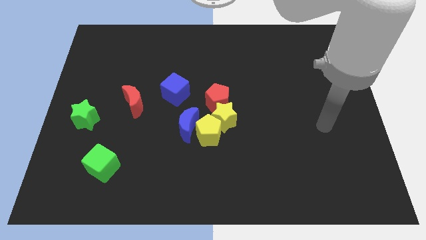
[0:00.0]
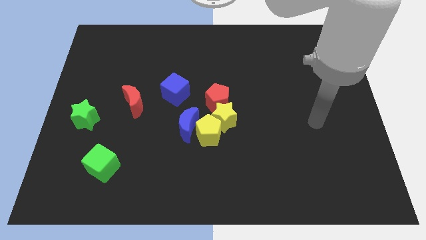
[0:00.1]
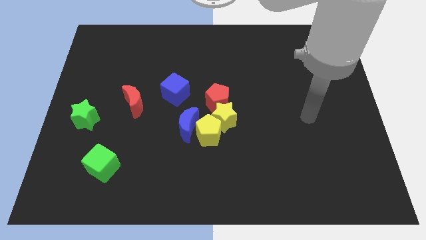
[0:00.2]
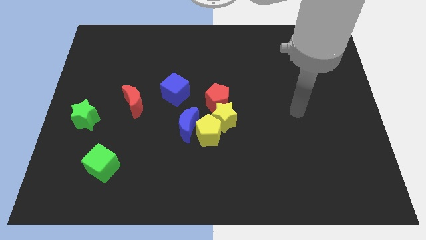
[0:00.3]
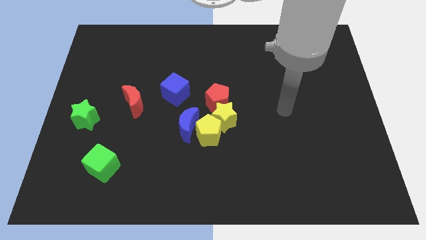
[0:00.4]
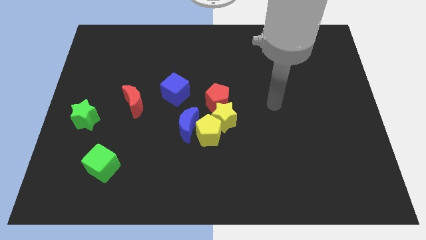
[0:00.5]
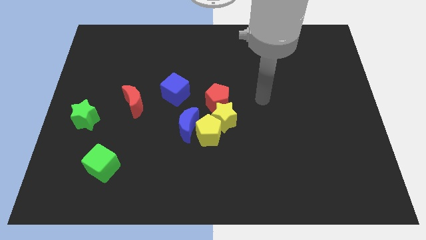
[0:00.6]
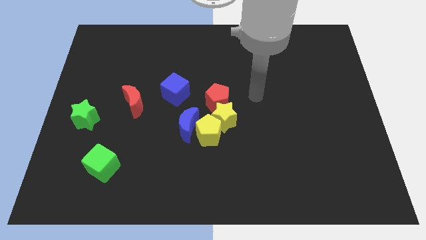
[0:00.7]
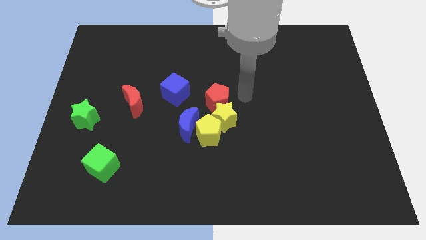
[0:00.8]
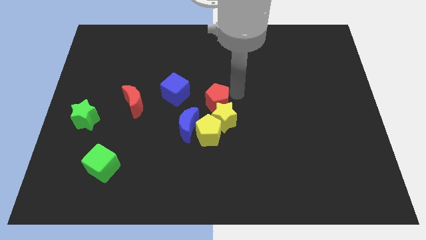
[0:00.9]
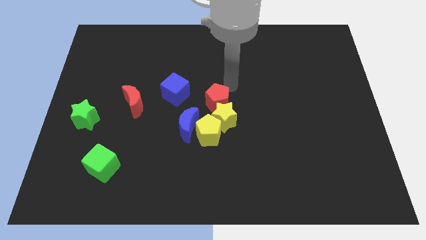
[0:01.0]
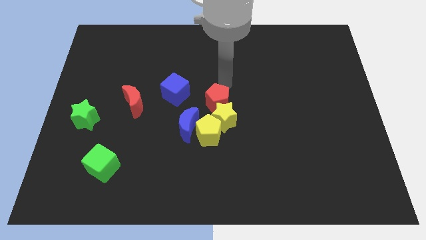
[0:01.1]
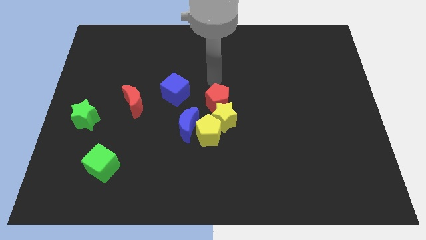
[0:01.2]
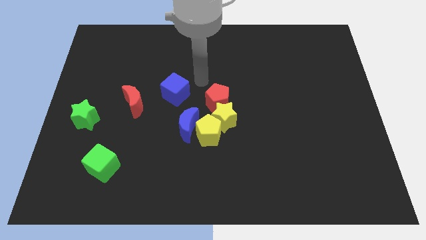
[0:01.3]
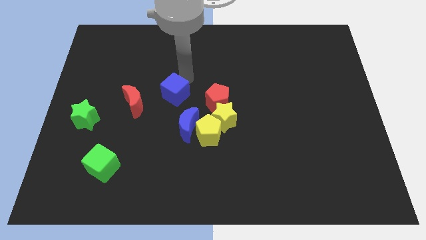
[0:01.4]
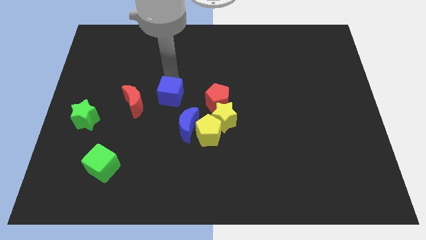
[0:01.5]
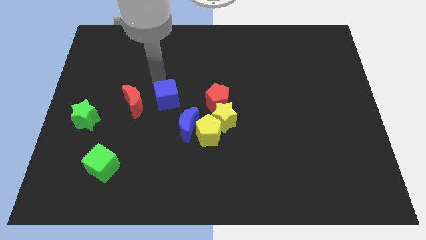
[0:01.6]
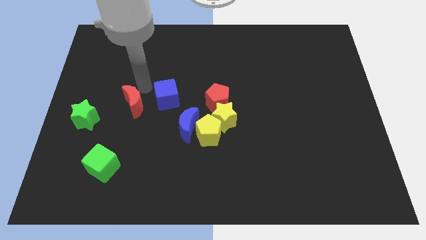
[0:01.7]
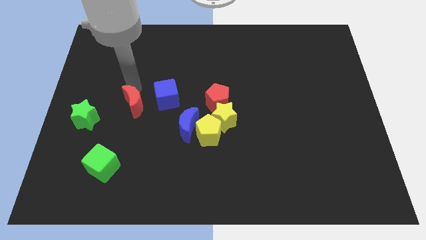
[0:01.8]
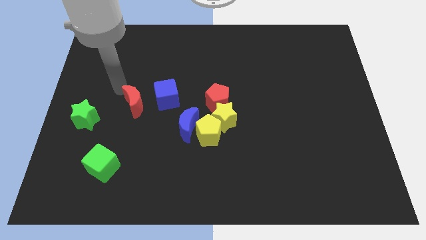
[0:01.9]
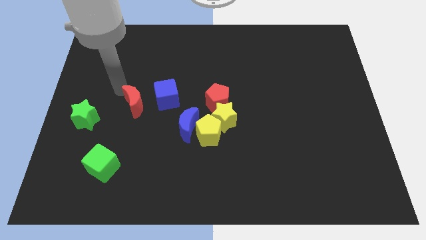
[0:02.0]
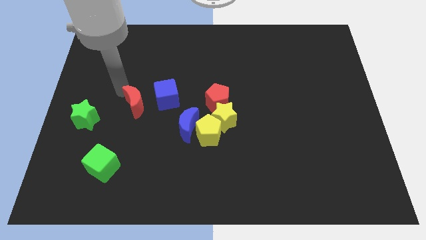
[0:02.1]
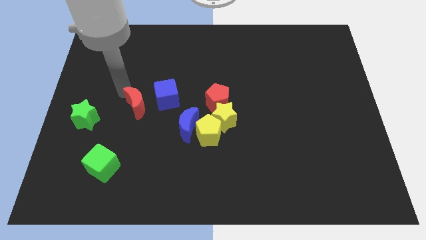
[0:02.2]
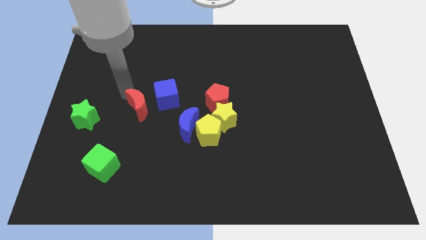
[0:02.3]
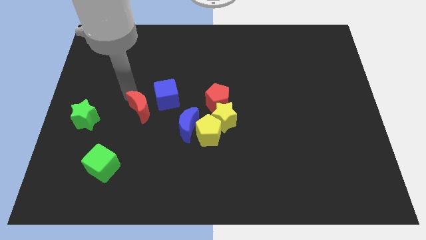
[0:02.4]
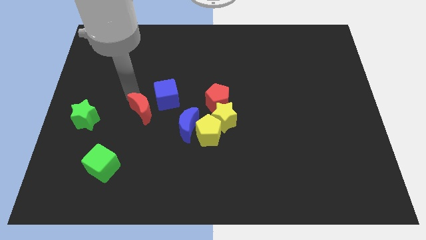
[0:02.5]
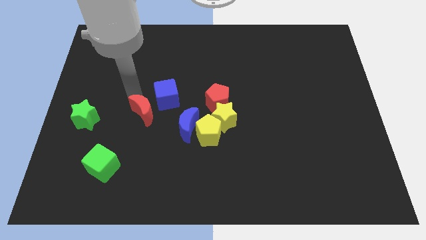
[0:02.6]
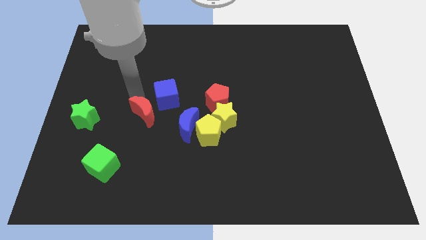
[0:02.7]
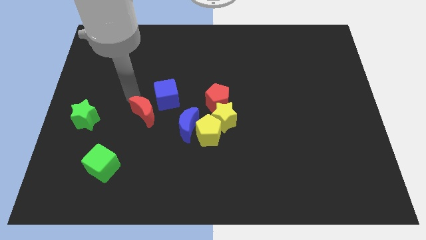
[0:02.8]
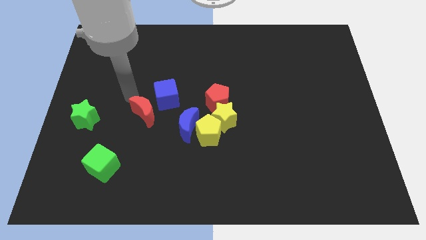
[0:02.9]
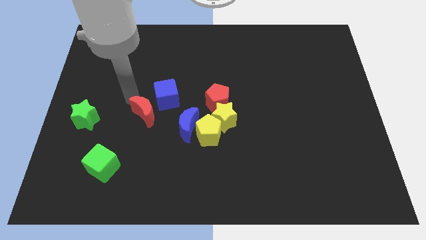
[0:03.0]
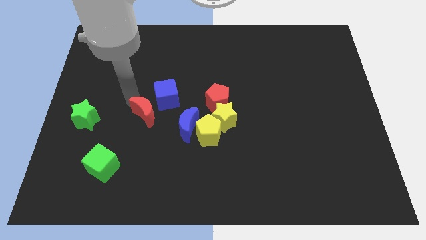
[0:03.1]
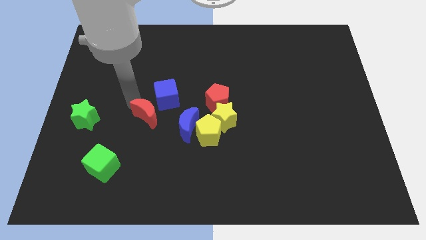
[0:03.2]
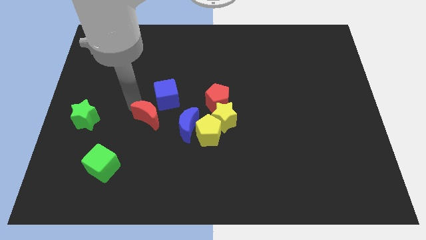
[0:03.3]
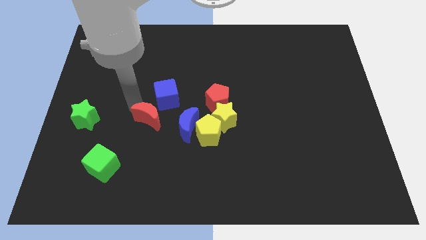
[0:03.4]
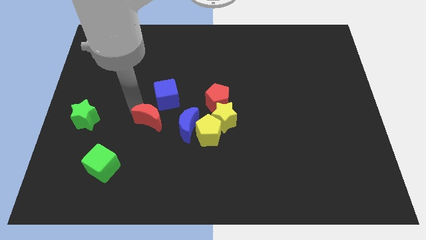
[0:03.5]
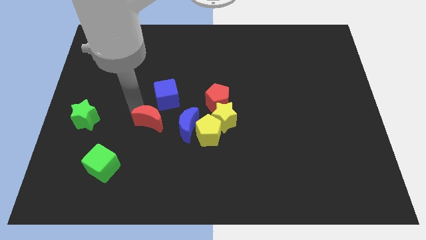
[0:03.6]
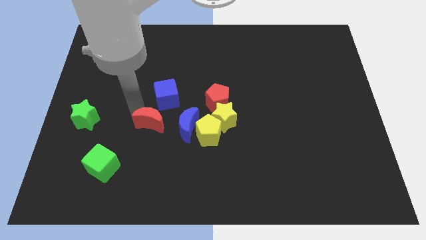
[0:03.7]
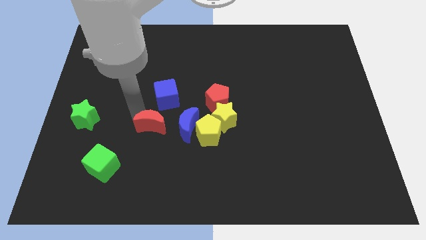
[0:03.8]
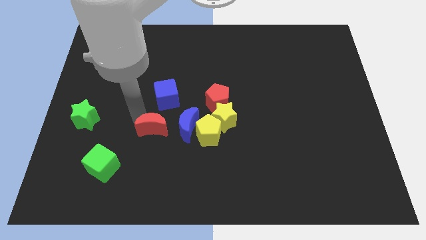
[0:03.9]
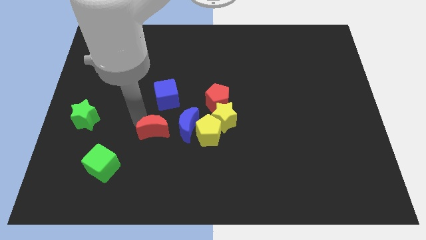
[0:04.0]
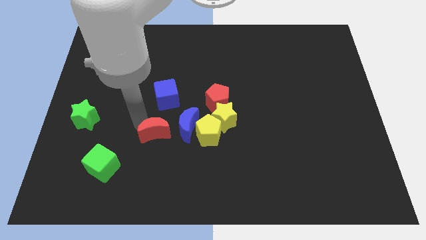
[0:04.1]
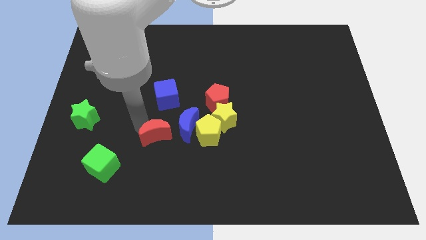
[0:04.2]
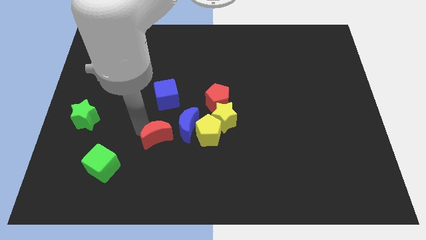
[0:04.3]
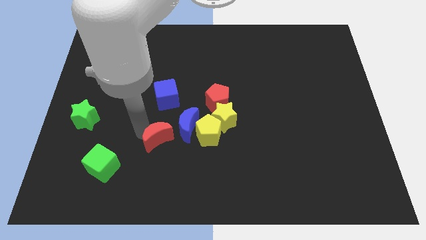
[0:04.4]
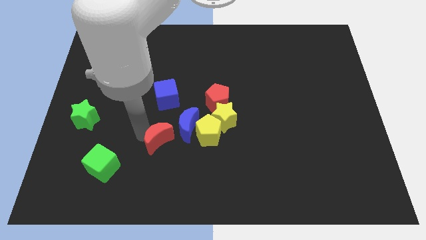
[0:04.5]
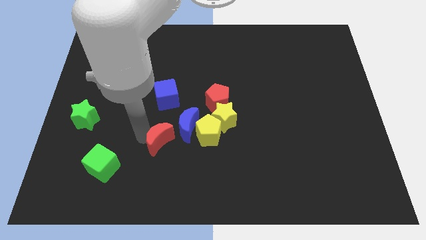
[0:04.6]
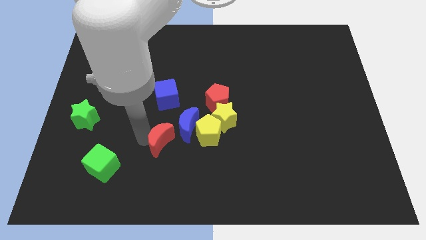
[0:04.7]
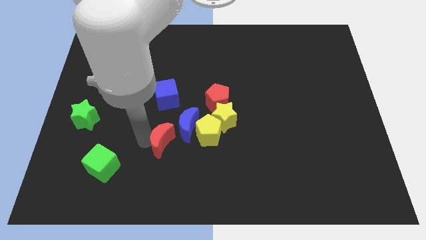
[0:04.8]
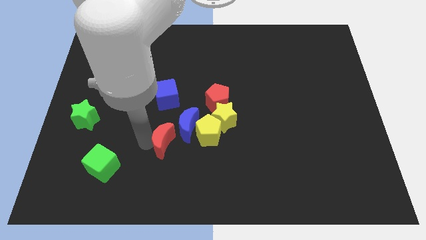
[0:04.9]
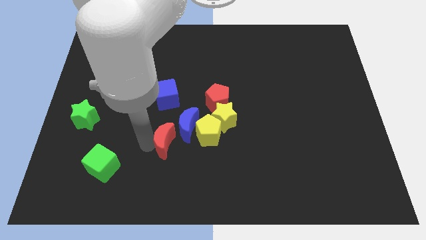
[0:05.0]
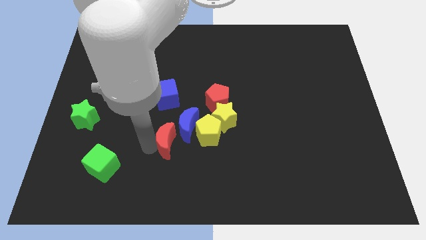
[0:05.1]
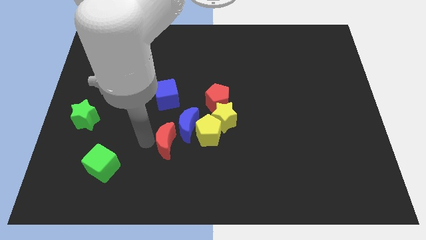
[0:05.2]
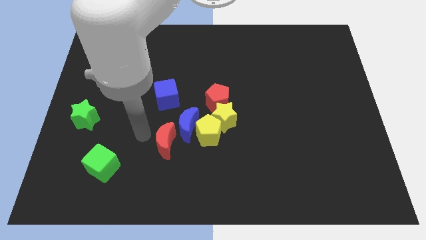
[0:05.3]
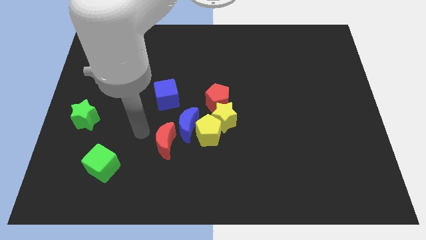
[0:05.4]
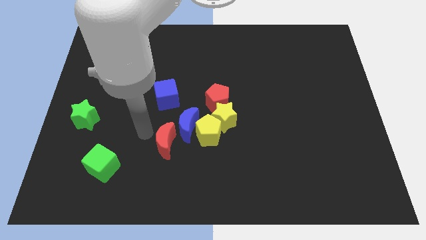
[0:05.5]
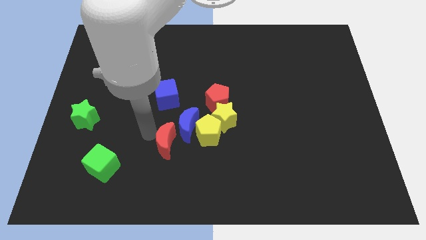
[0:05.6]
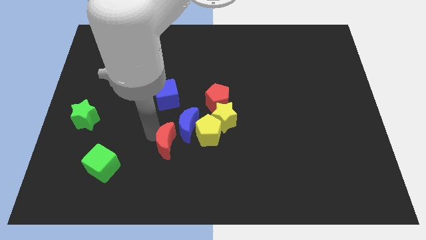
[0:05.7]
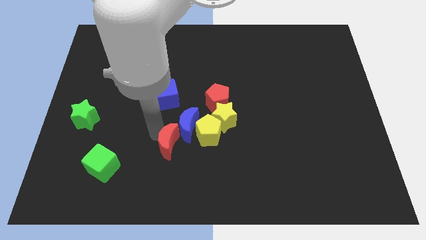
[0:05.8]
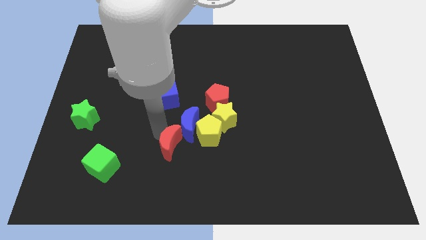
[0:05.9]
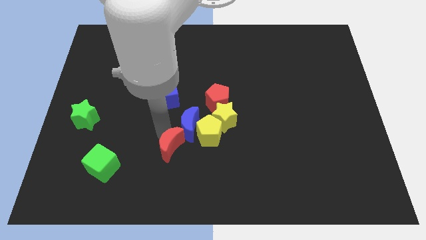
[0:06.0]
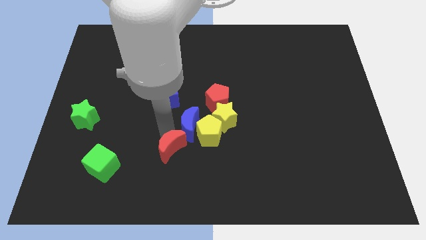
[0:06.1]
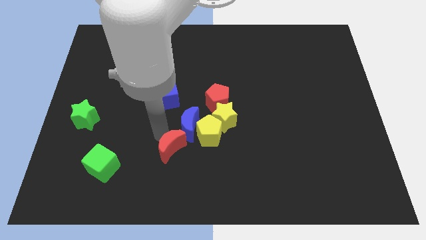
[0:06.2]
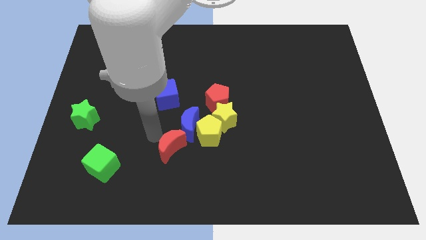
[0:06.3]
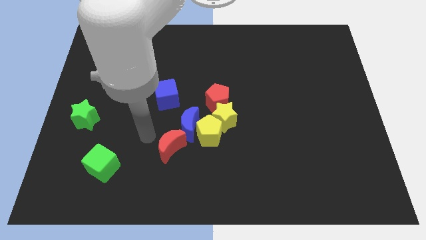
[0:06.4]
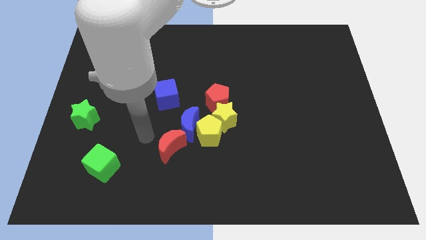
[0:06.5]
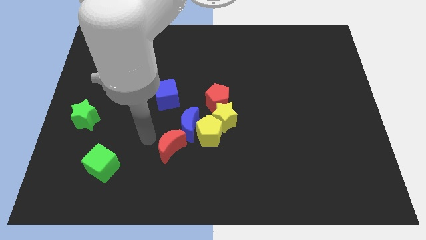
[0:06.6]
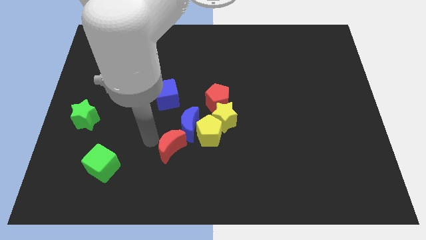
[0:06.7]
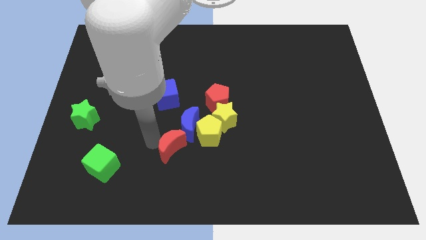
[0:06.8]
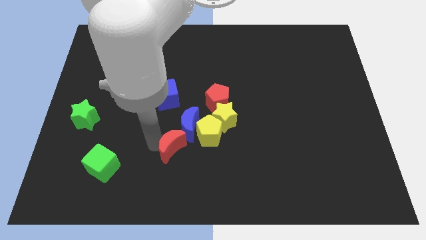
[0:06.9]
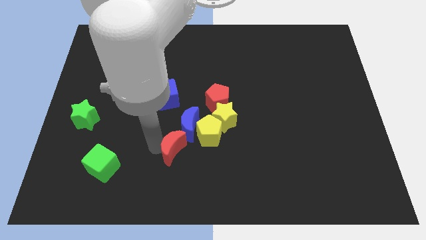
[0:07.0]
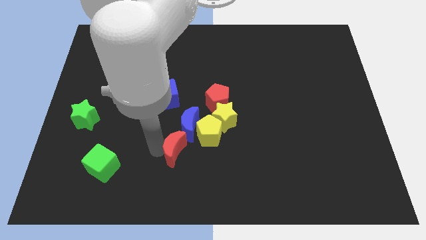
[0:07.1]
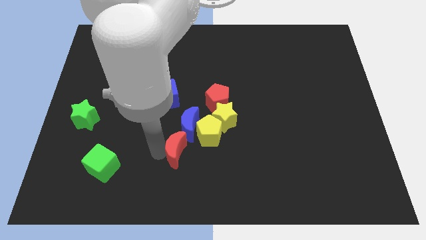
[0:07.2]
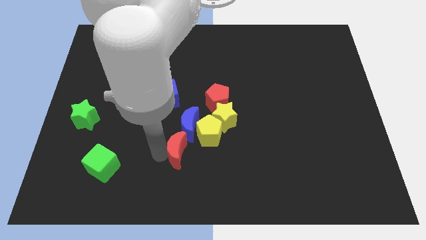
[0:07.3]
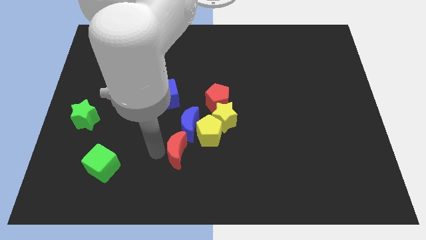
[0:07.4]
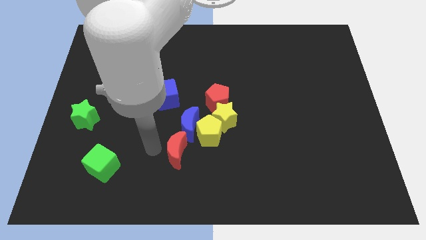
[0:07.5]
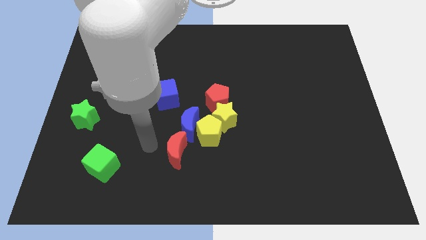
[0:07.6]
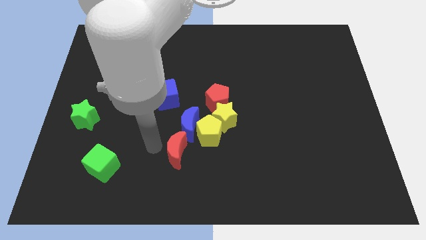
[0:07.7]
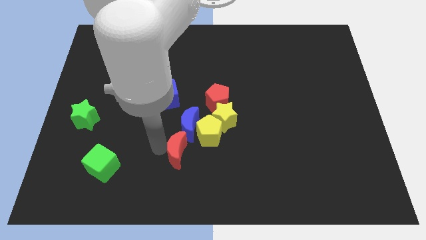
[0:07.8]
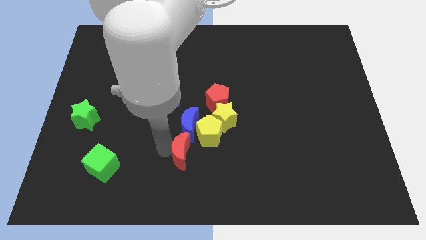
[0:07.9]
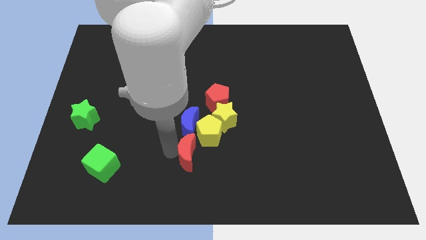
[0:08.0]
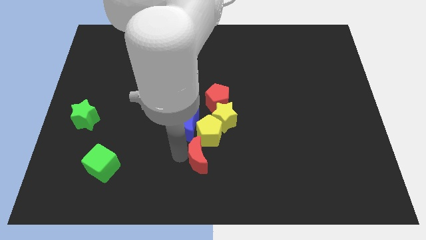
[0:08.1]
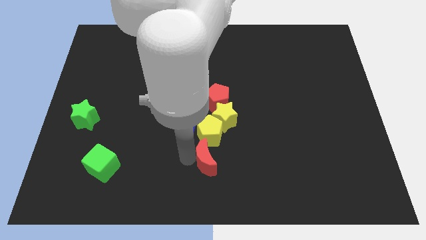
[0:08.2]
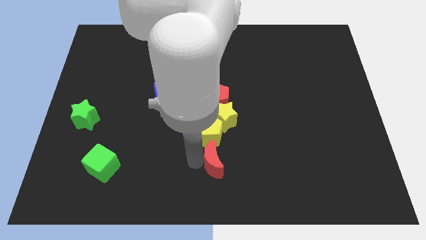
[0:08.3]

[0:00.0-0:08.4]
slide the red moon to the bottom right of the yellow pentagon
